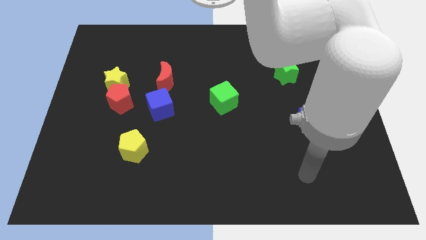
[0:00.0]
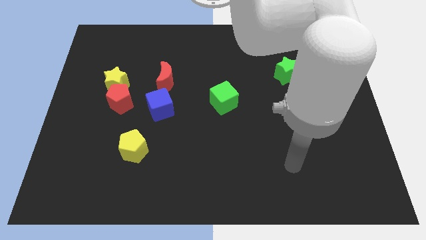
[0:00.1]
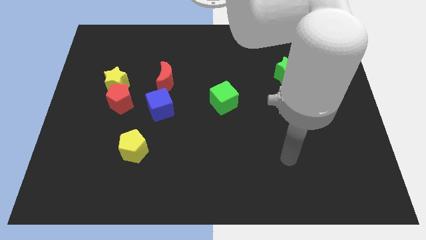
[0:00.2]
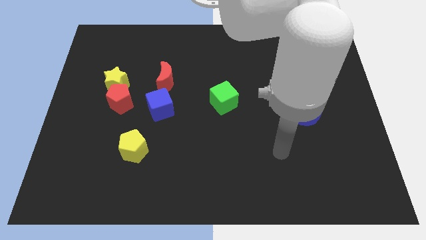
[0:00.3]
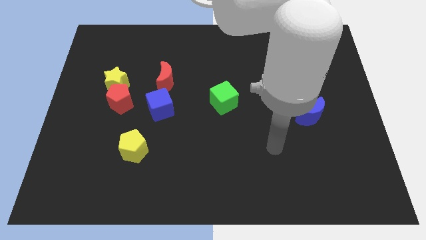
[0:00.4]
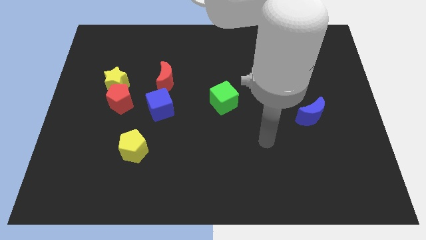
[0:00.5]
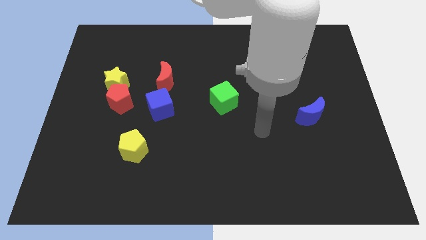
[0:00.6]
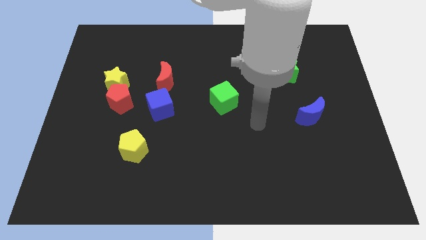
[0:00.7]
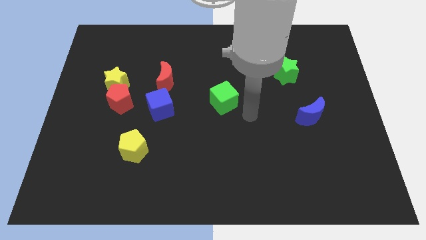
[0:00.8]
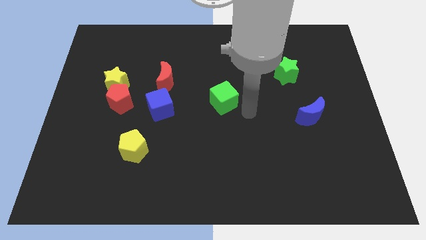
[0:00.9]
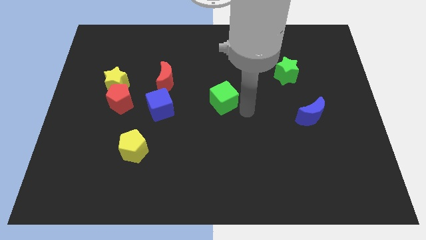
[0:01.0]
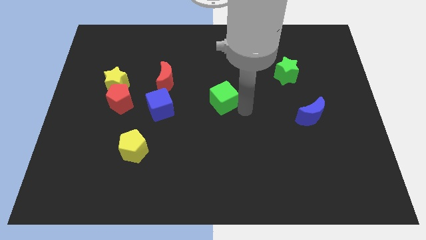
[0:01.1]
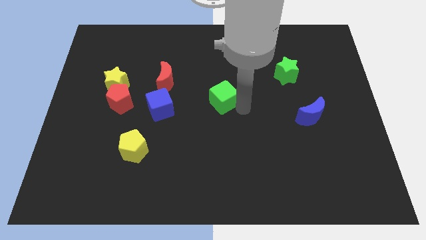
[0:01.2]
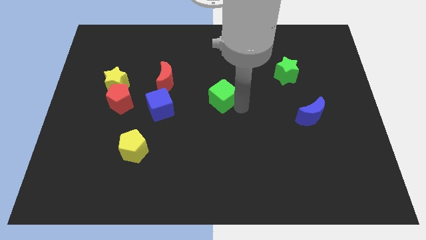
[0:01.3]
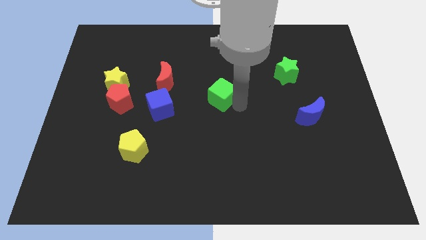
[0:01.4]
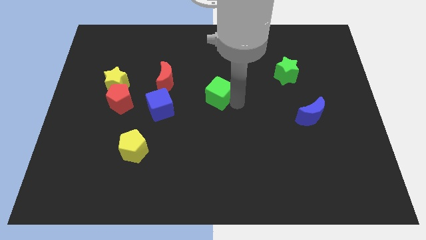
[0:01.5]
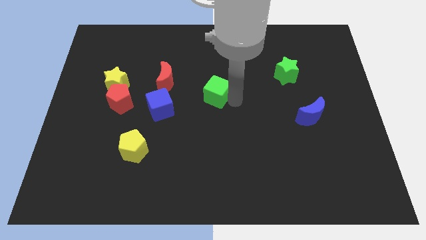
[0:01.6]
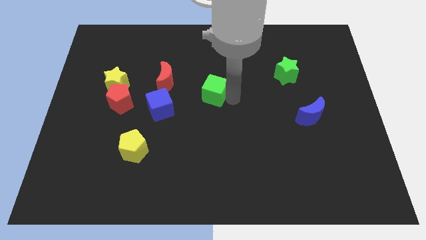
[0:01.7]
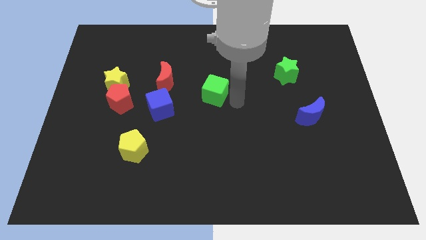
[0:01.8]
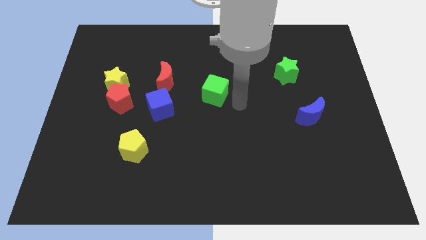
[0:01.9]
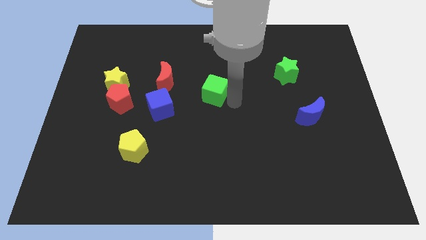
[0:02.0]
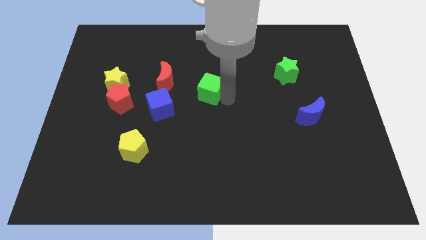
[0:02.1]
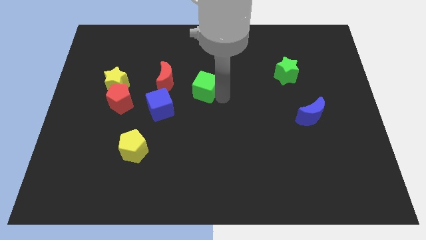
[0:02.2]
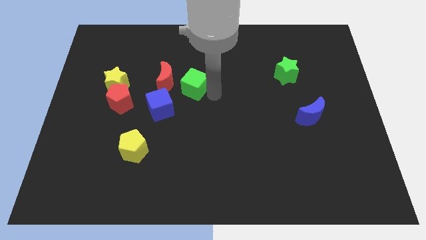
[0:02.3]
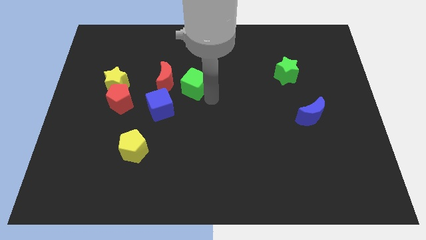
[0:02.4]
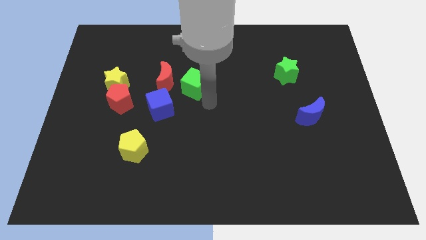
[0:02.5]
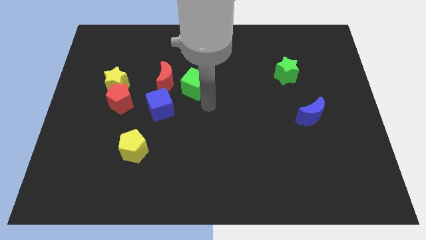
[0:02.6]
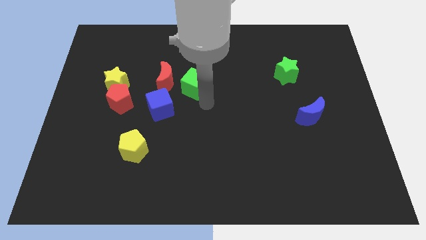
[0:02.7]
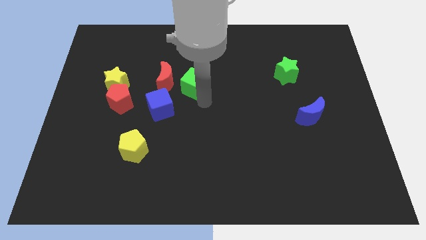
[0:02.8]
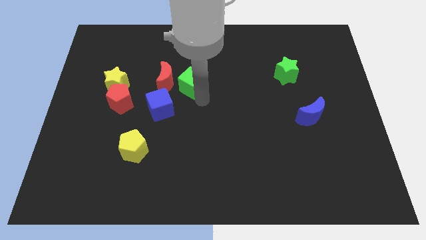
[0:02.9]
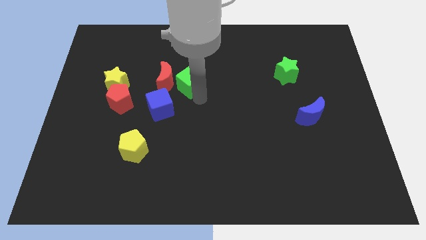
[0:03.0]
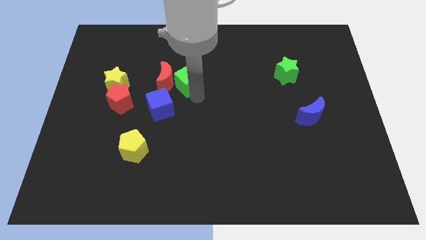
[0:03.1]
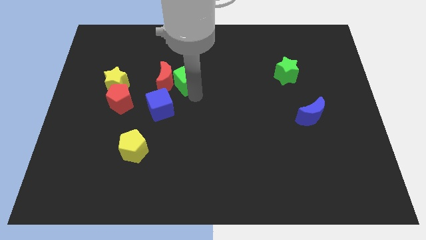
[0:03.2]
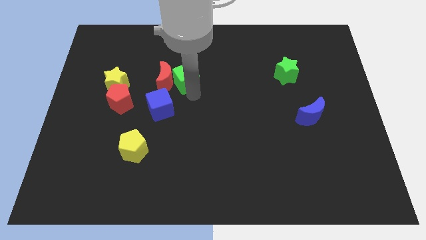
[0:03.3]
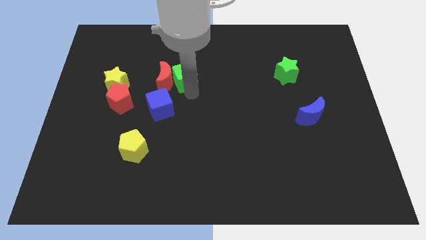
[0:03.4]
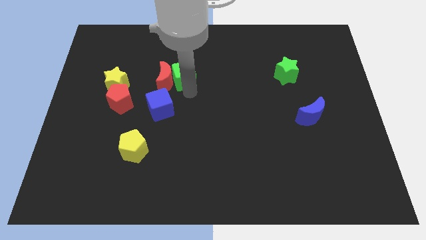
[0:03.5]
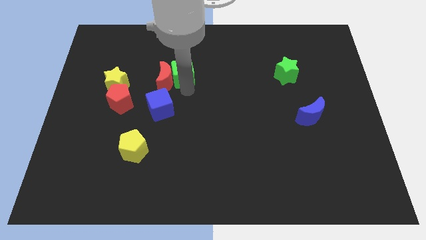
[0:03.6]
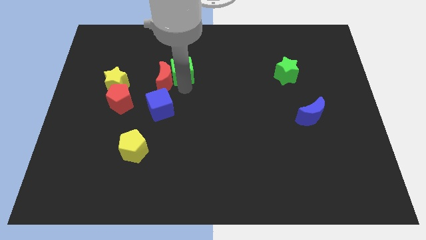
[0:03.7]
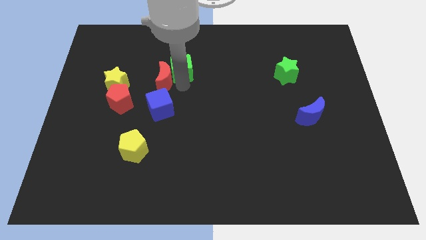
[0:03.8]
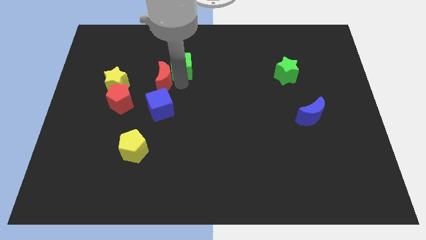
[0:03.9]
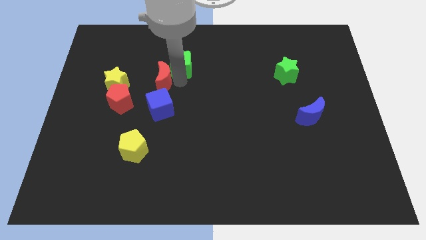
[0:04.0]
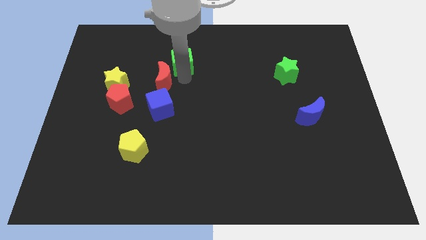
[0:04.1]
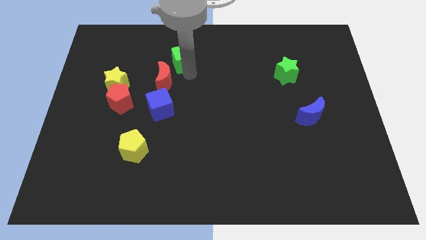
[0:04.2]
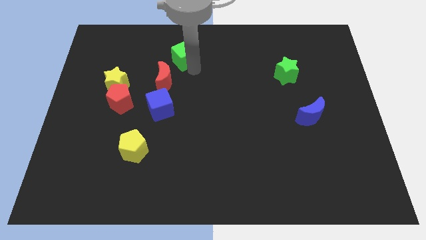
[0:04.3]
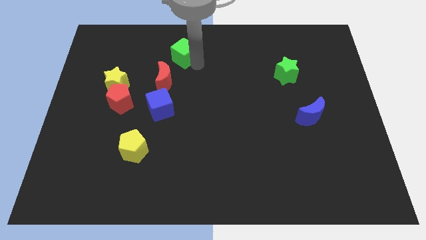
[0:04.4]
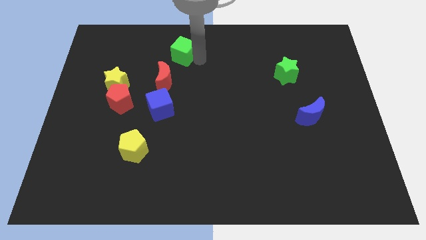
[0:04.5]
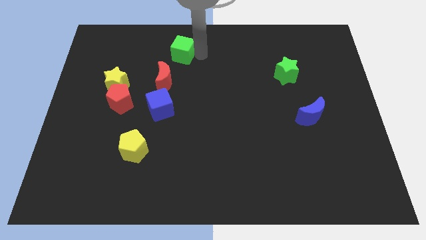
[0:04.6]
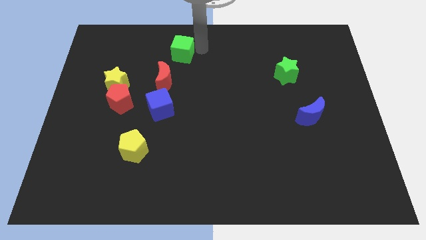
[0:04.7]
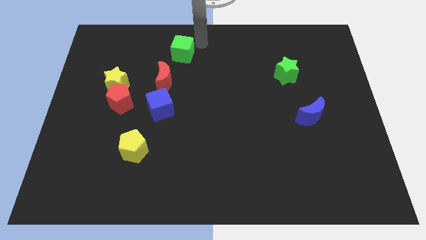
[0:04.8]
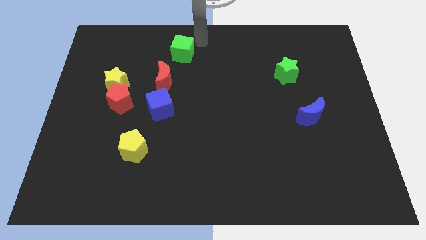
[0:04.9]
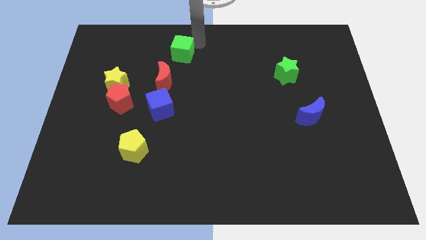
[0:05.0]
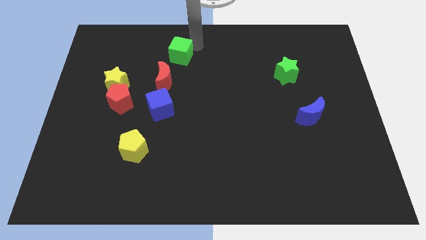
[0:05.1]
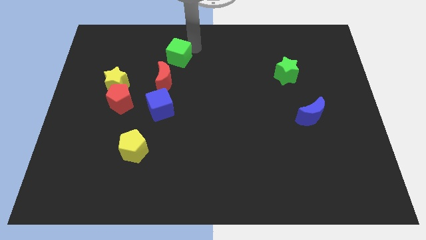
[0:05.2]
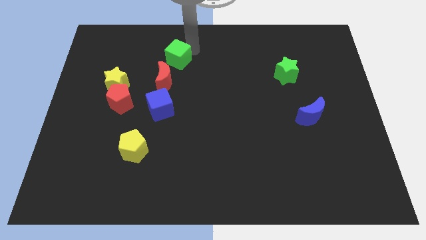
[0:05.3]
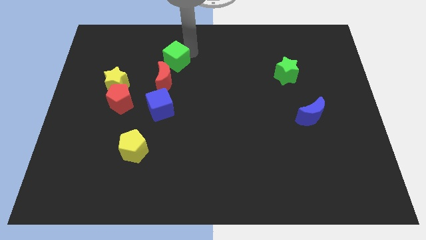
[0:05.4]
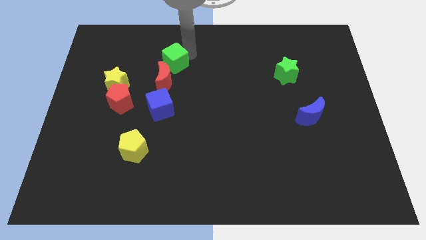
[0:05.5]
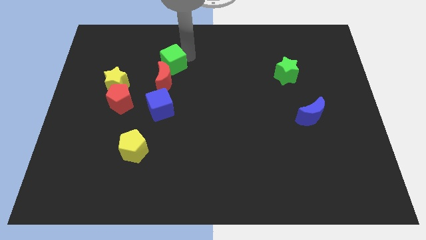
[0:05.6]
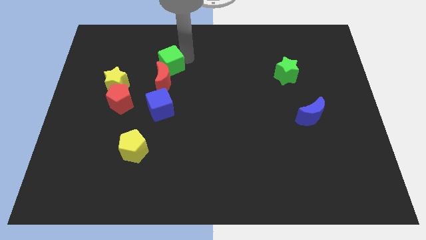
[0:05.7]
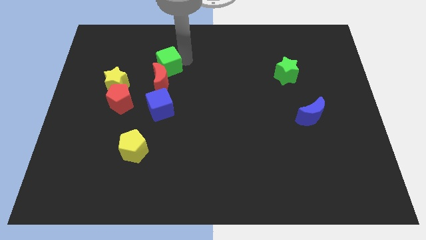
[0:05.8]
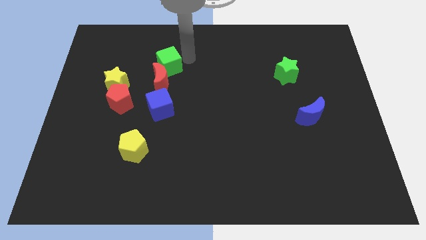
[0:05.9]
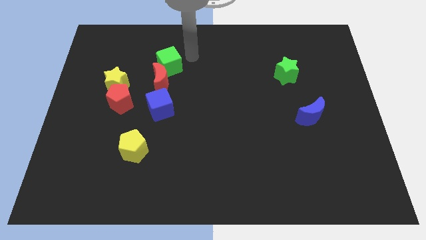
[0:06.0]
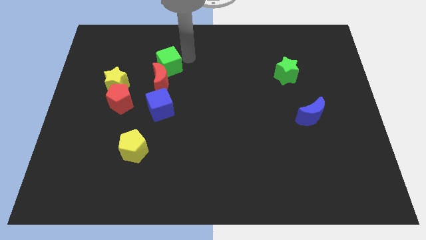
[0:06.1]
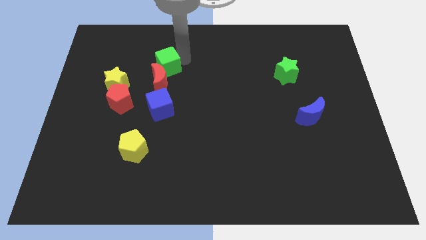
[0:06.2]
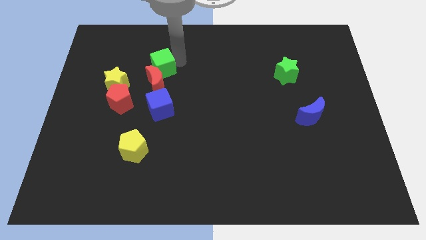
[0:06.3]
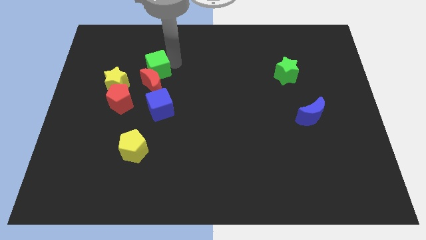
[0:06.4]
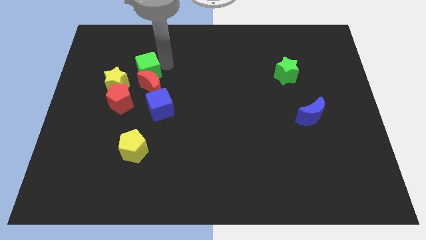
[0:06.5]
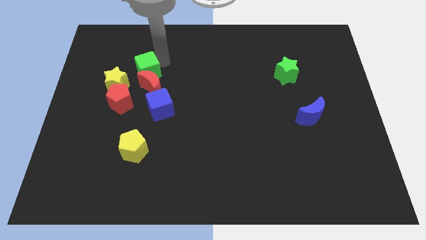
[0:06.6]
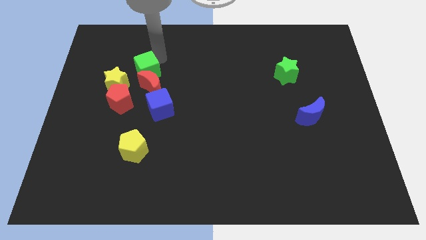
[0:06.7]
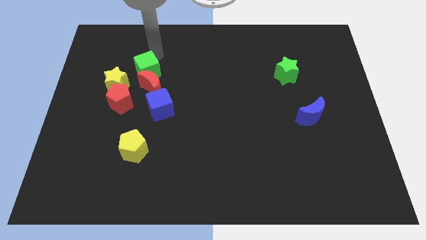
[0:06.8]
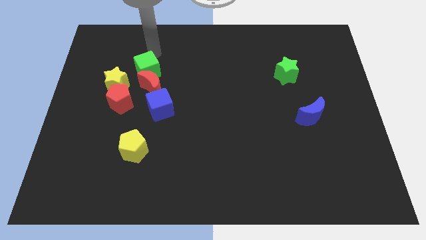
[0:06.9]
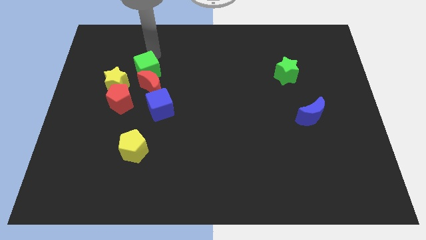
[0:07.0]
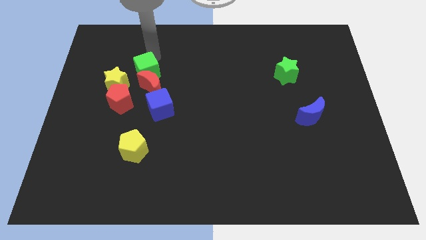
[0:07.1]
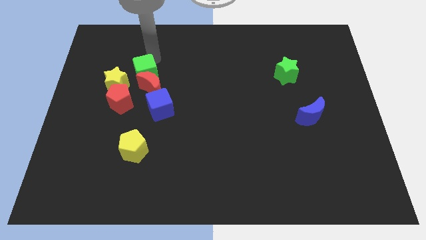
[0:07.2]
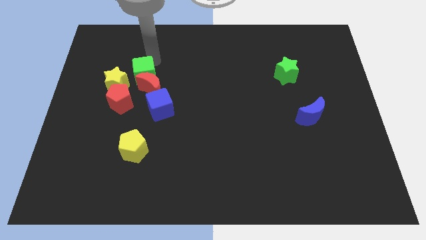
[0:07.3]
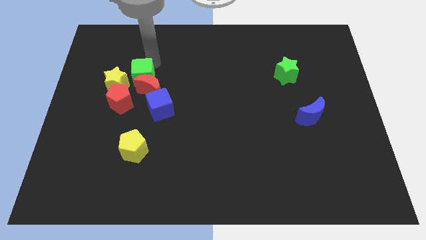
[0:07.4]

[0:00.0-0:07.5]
move the green cube diagonally up and to the left of the blue cube
